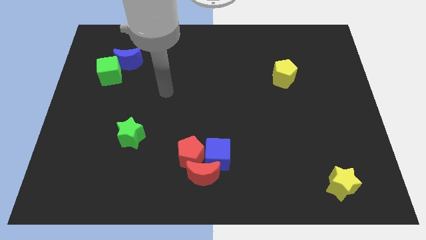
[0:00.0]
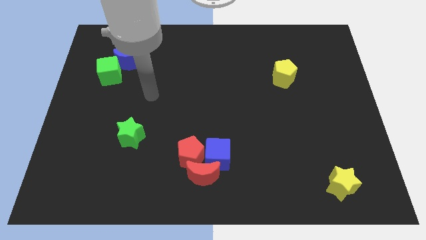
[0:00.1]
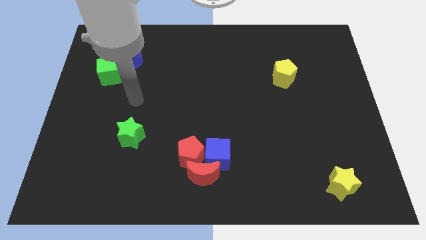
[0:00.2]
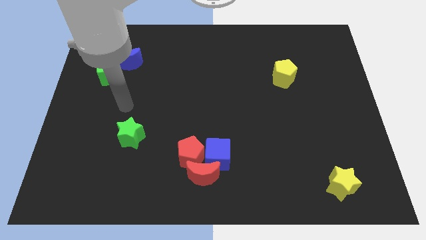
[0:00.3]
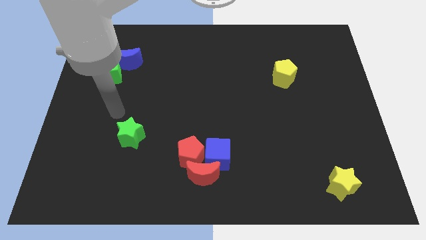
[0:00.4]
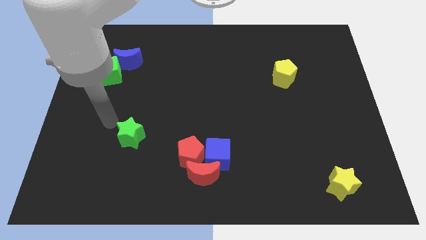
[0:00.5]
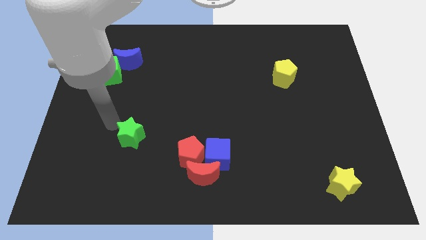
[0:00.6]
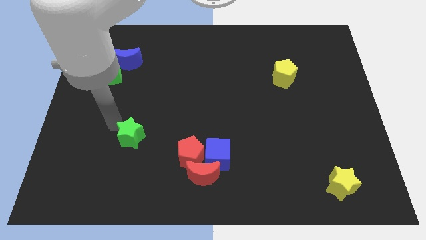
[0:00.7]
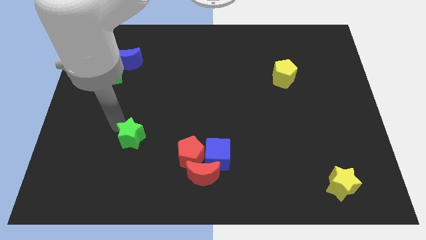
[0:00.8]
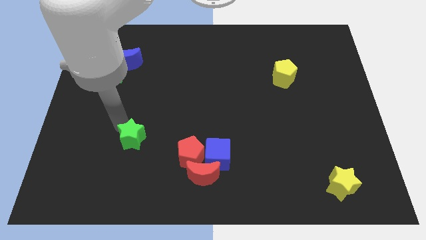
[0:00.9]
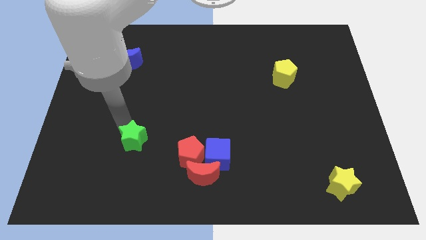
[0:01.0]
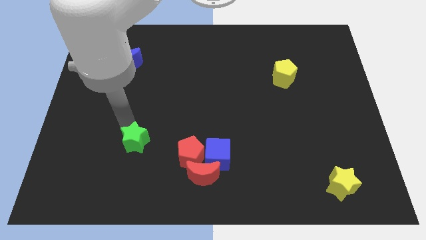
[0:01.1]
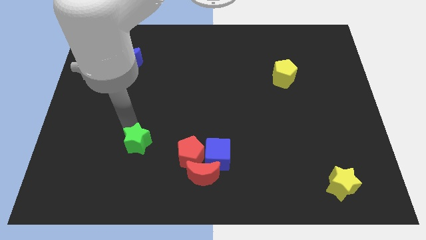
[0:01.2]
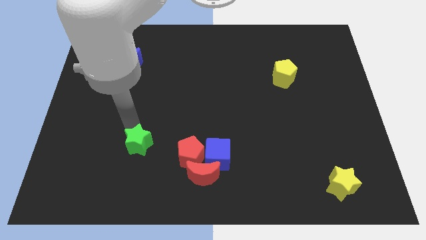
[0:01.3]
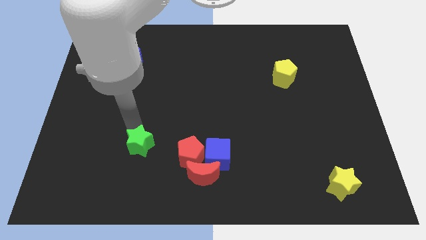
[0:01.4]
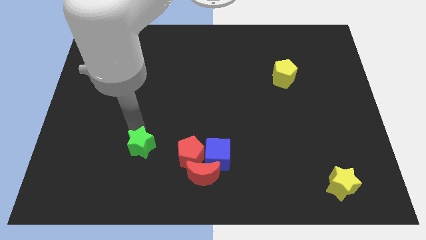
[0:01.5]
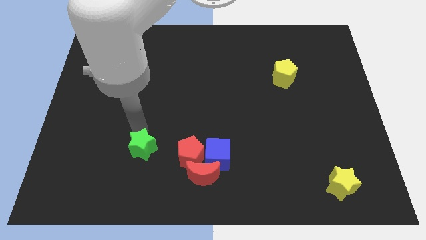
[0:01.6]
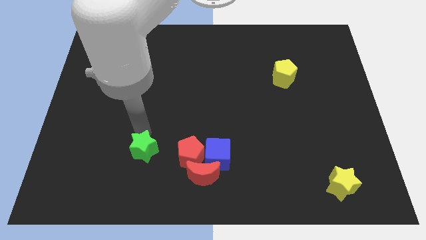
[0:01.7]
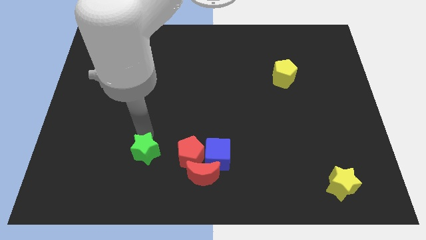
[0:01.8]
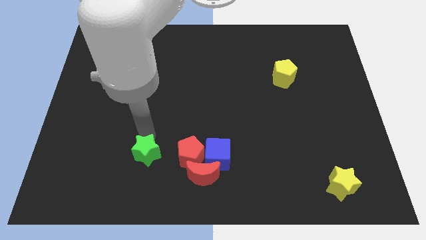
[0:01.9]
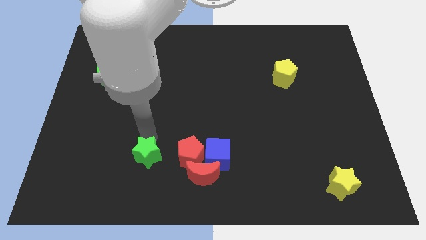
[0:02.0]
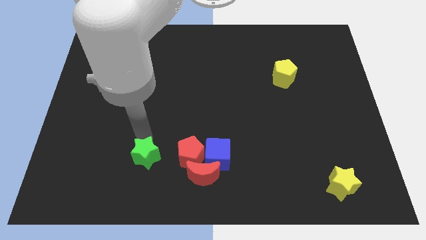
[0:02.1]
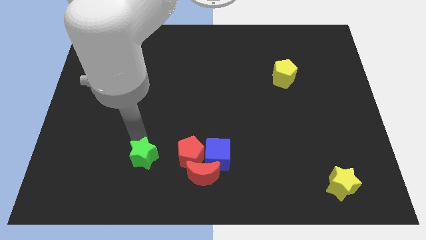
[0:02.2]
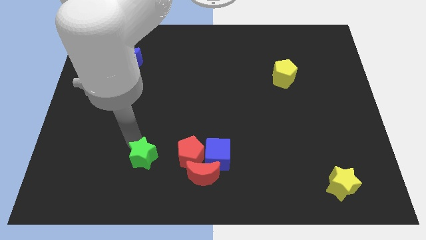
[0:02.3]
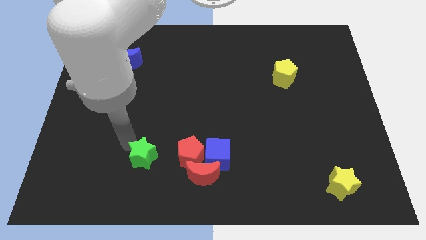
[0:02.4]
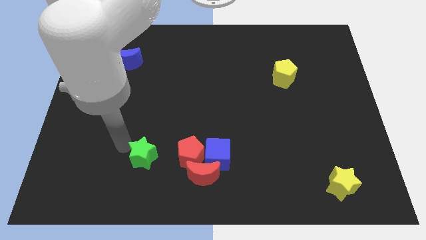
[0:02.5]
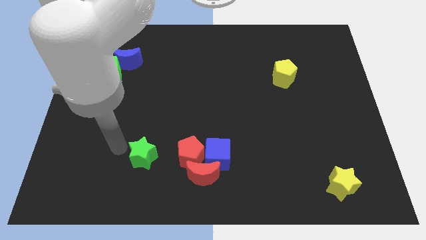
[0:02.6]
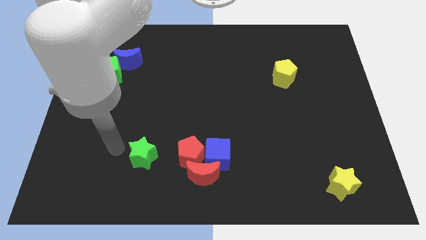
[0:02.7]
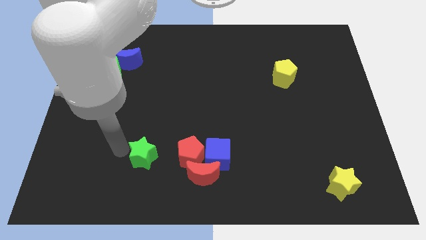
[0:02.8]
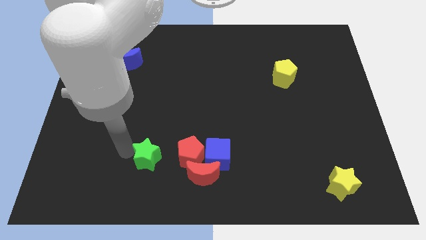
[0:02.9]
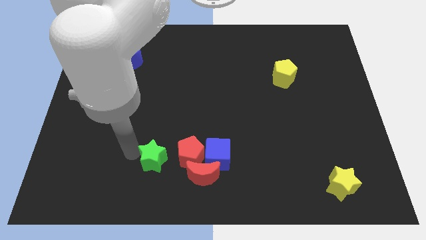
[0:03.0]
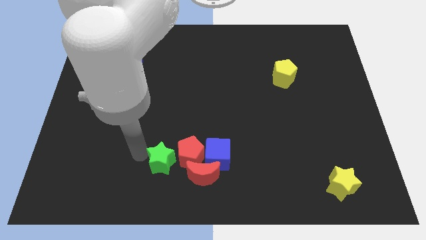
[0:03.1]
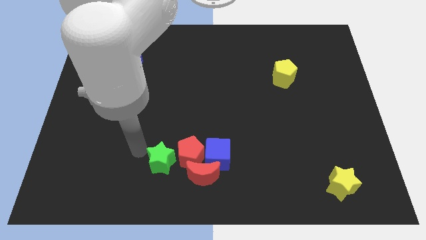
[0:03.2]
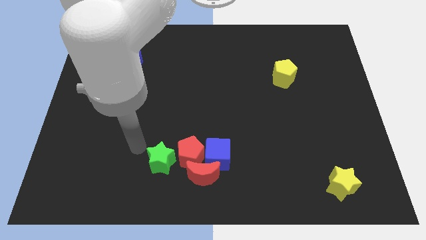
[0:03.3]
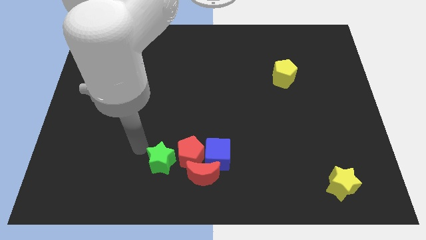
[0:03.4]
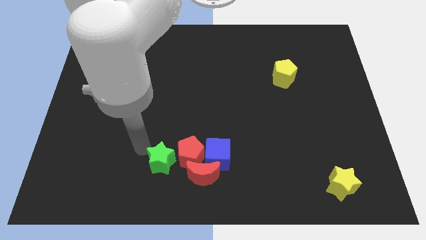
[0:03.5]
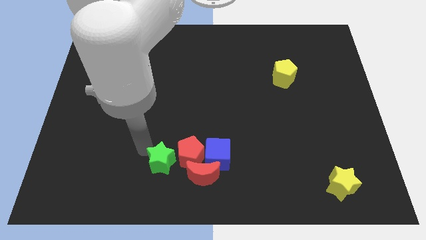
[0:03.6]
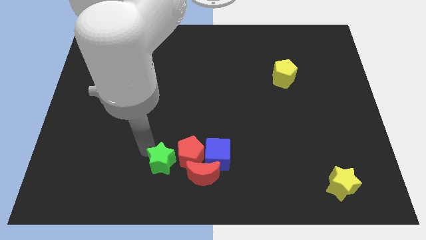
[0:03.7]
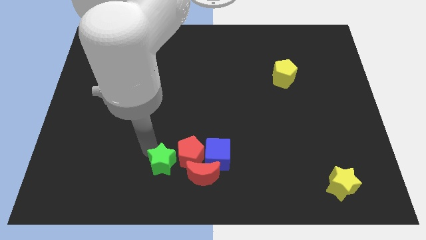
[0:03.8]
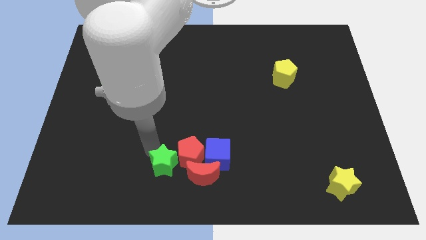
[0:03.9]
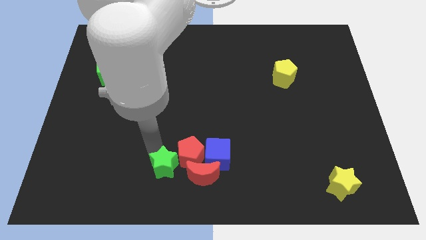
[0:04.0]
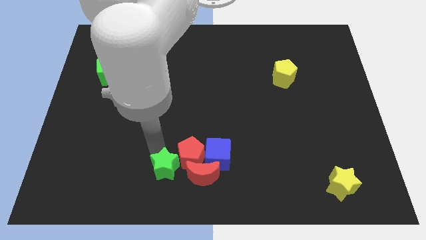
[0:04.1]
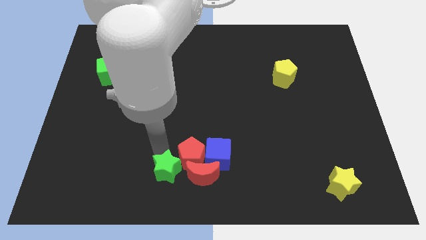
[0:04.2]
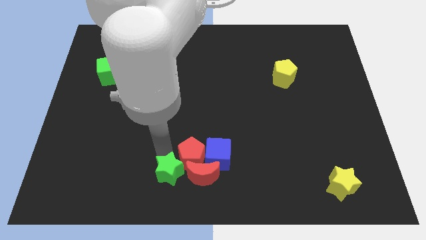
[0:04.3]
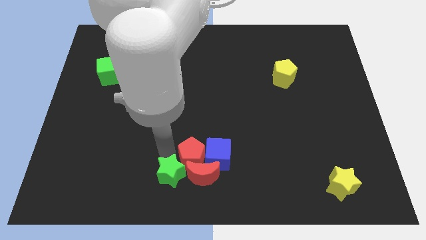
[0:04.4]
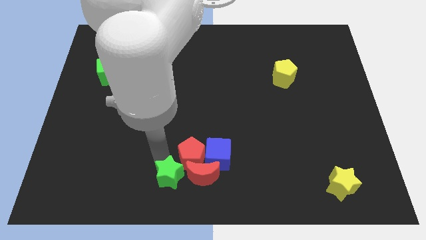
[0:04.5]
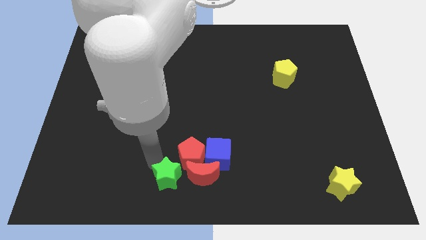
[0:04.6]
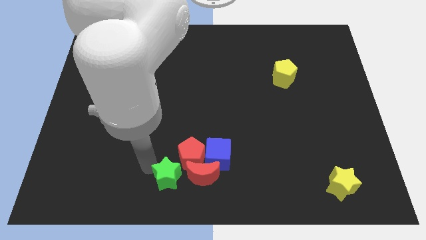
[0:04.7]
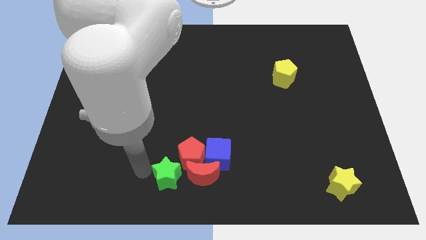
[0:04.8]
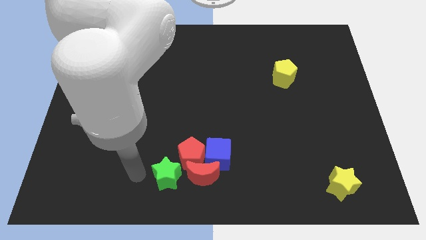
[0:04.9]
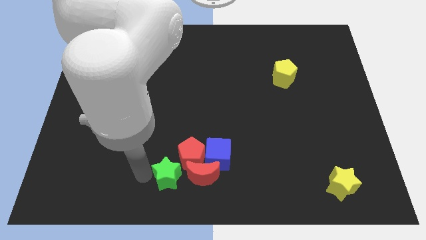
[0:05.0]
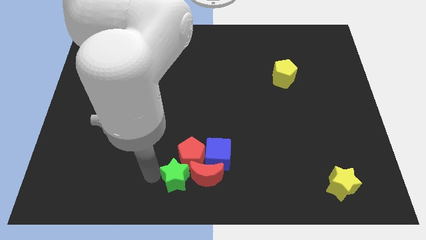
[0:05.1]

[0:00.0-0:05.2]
push the green star close to the red moon

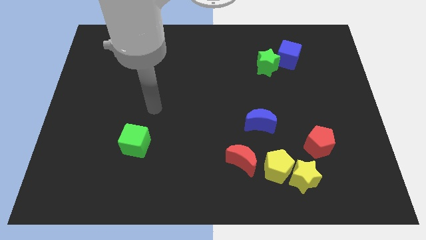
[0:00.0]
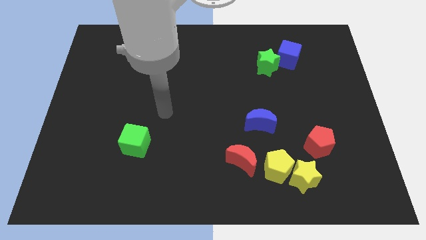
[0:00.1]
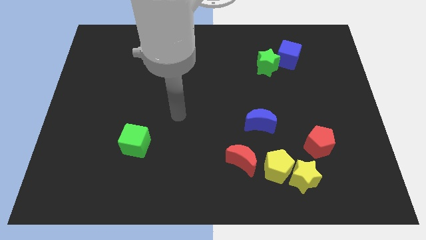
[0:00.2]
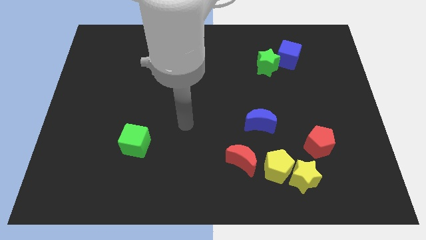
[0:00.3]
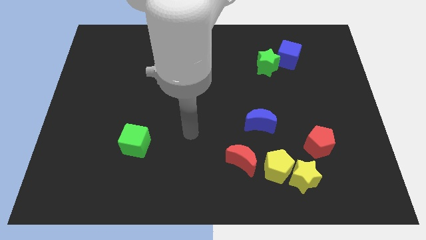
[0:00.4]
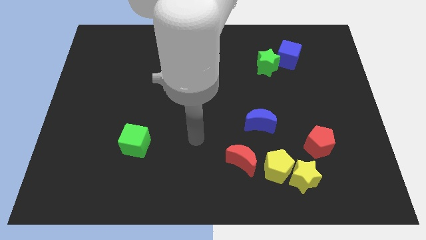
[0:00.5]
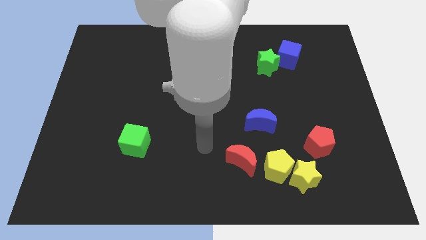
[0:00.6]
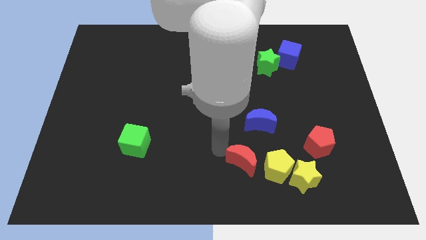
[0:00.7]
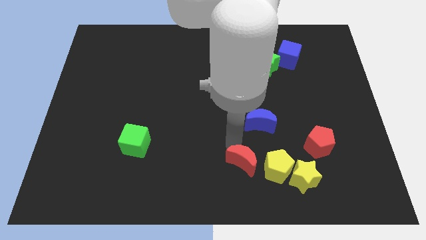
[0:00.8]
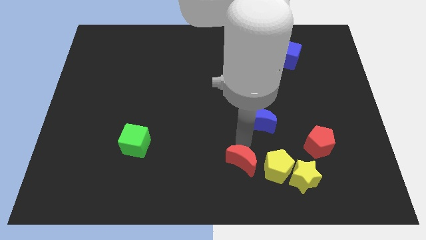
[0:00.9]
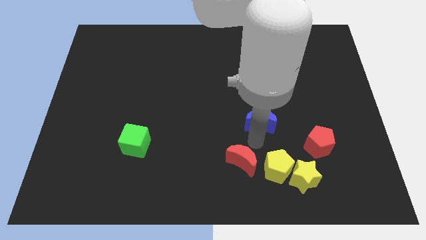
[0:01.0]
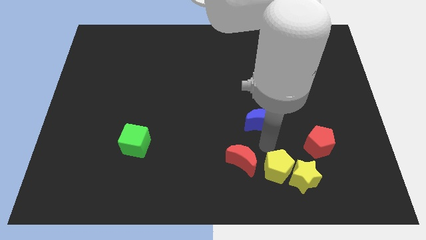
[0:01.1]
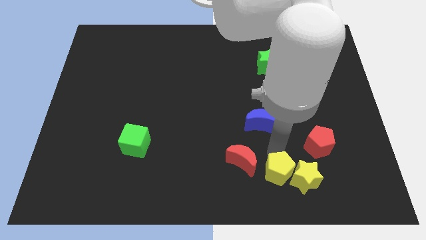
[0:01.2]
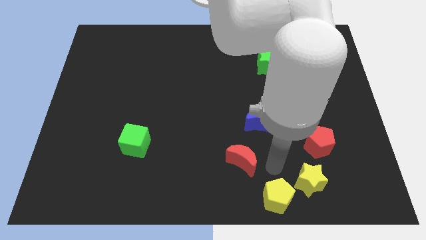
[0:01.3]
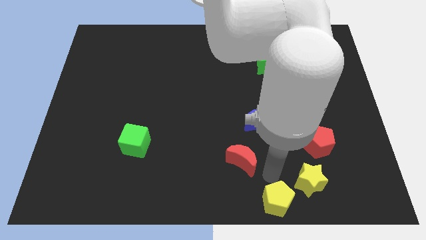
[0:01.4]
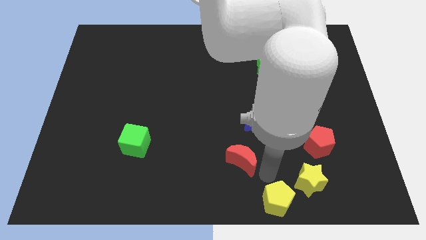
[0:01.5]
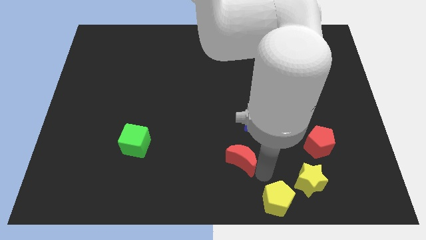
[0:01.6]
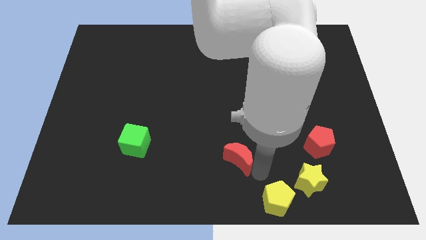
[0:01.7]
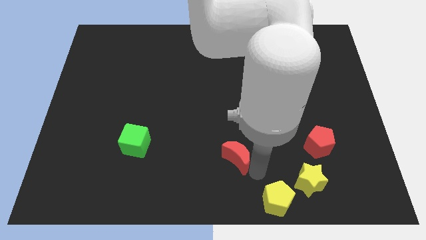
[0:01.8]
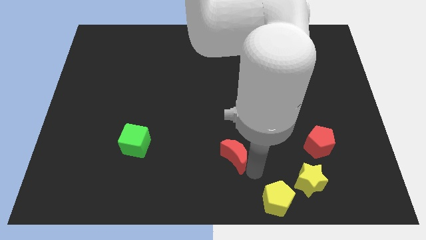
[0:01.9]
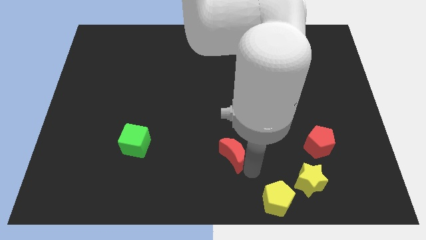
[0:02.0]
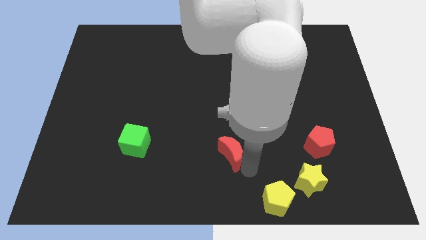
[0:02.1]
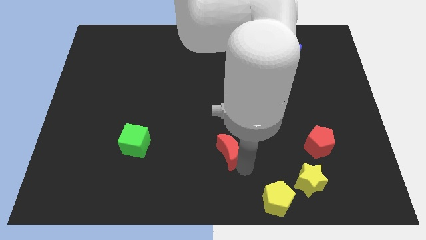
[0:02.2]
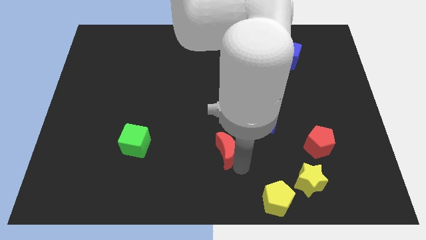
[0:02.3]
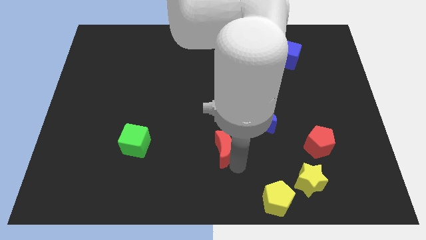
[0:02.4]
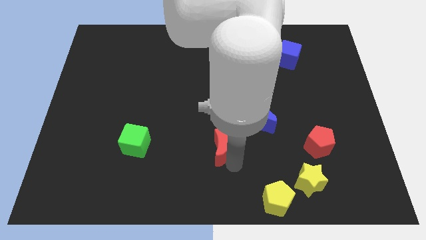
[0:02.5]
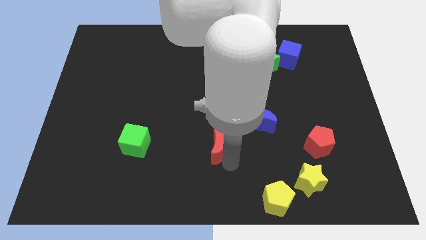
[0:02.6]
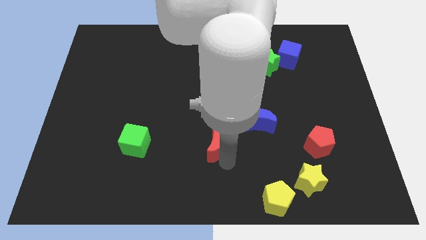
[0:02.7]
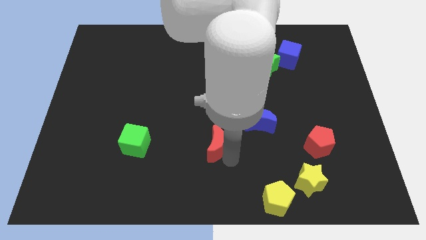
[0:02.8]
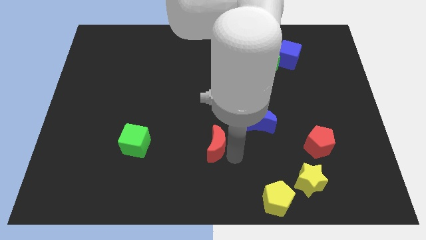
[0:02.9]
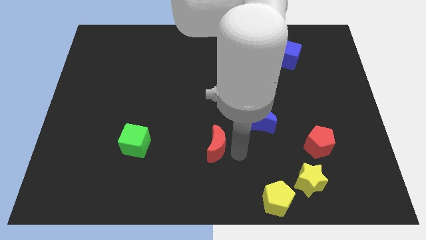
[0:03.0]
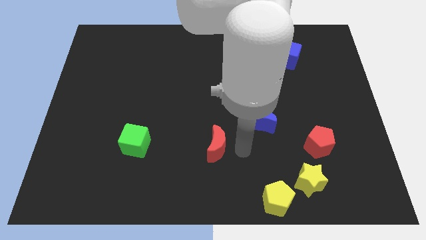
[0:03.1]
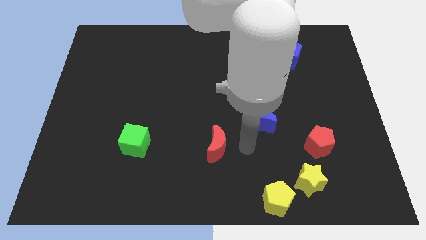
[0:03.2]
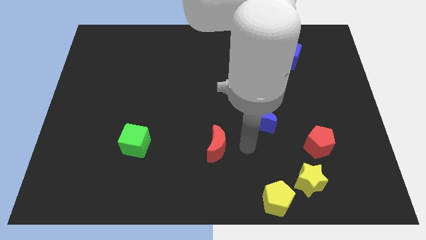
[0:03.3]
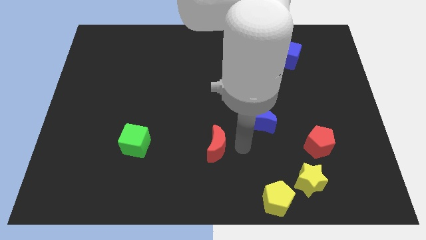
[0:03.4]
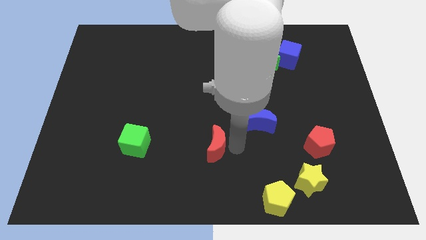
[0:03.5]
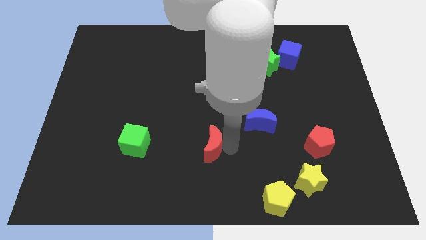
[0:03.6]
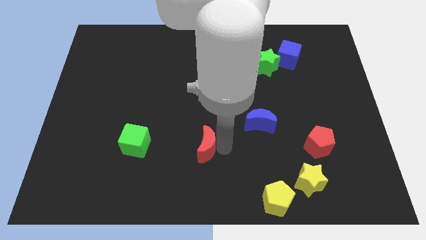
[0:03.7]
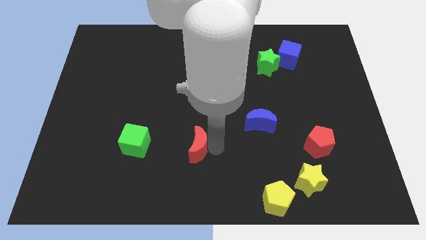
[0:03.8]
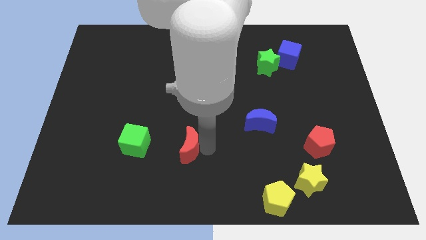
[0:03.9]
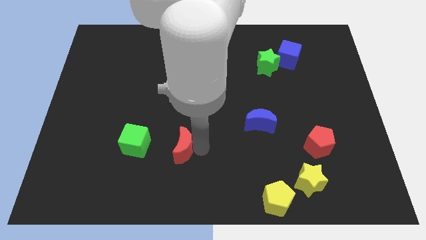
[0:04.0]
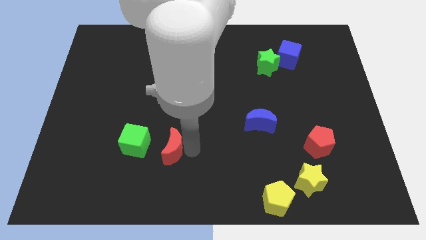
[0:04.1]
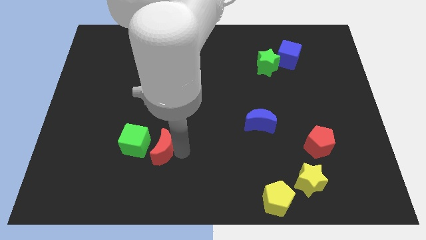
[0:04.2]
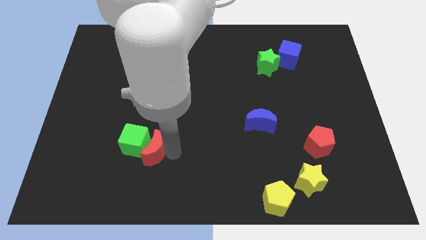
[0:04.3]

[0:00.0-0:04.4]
move the red moon to the green cube
